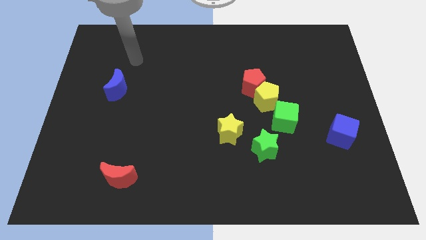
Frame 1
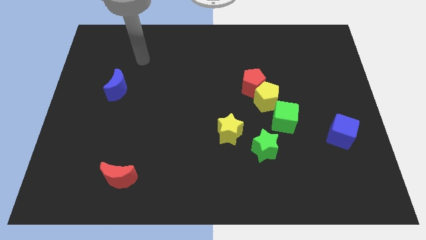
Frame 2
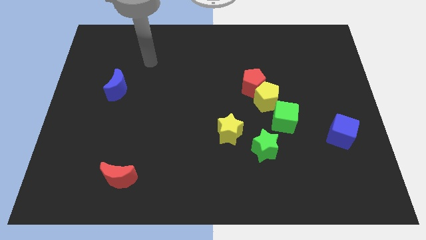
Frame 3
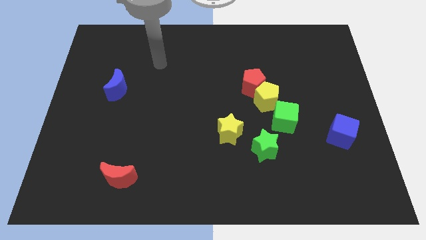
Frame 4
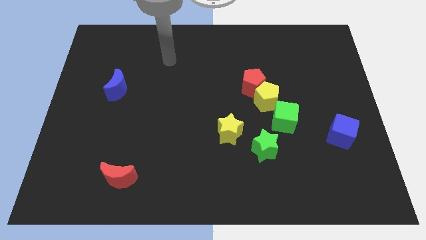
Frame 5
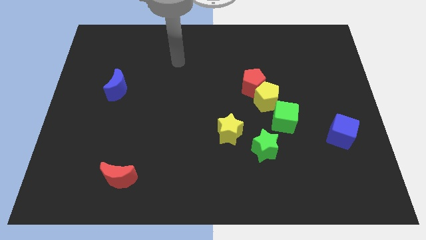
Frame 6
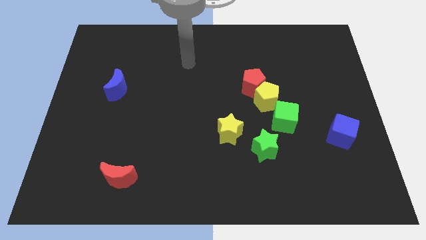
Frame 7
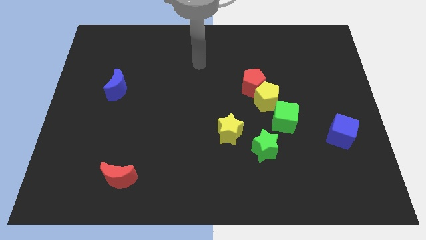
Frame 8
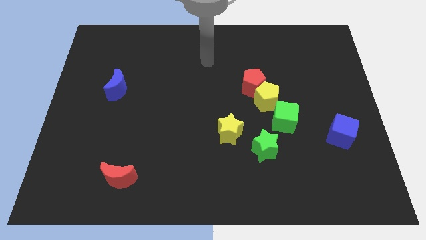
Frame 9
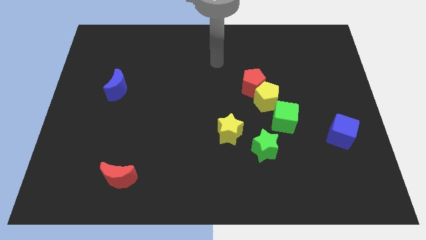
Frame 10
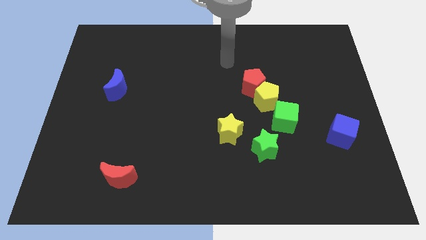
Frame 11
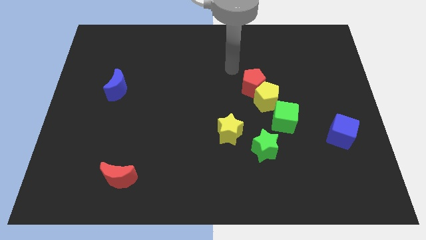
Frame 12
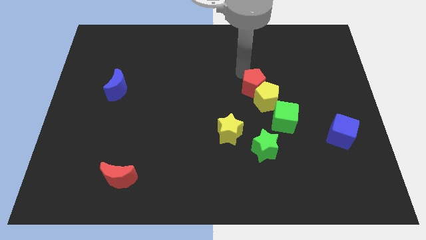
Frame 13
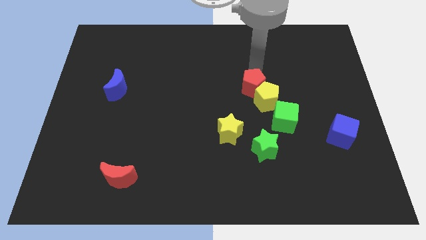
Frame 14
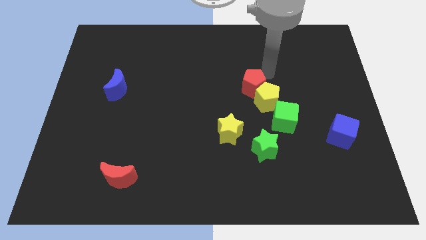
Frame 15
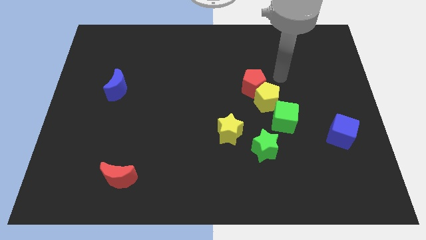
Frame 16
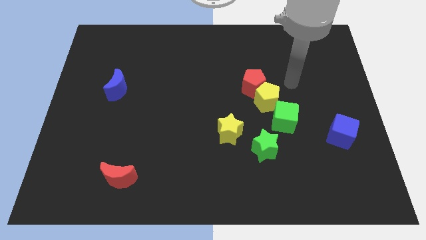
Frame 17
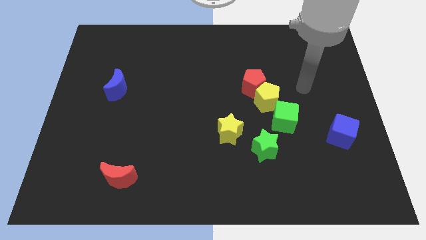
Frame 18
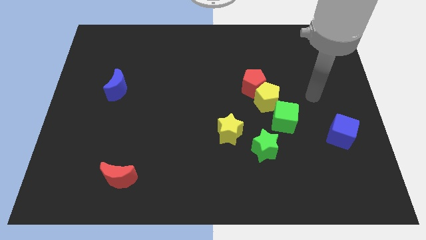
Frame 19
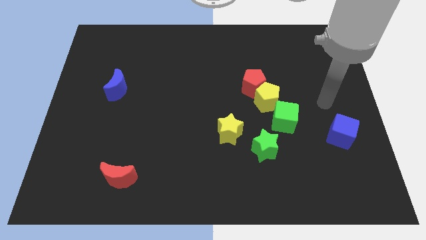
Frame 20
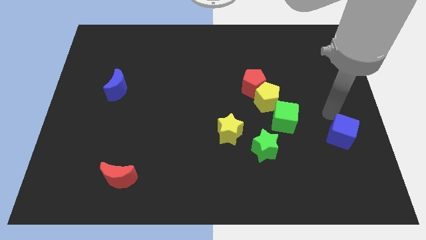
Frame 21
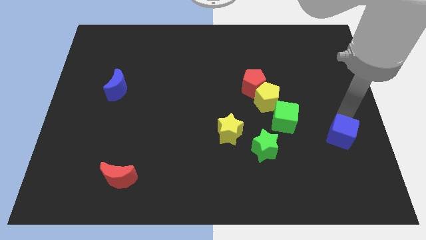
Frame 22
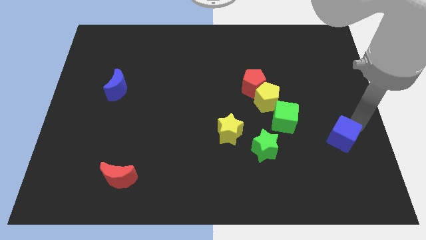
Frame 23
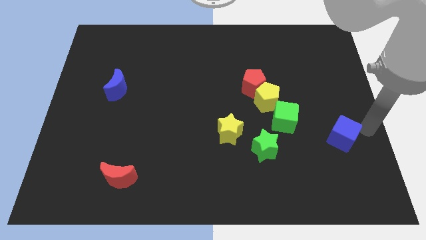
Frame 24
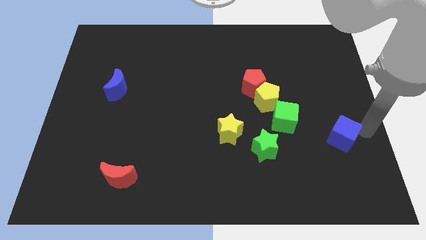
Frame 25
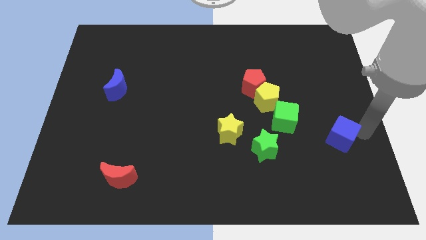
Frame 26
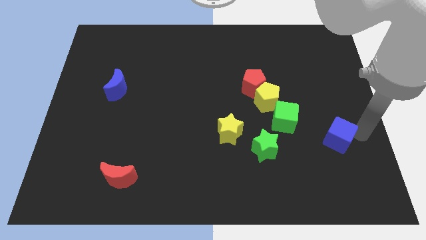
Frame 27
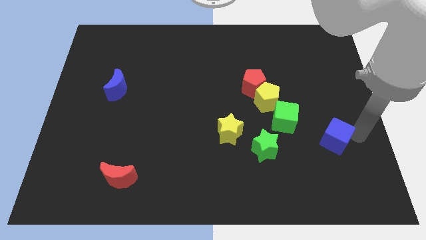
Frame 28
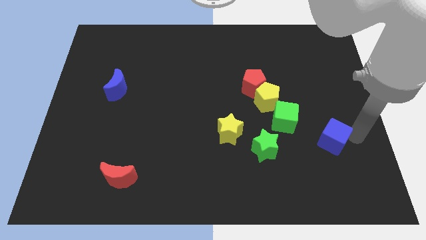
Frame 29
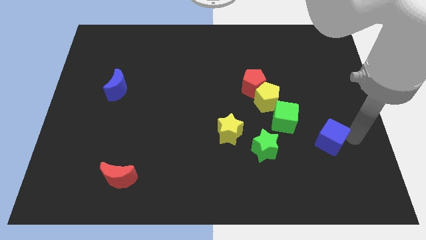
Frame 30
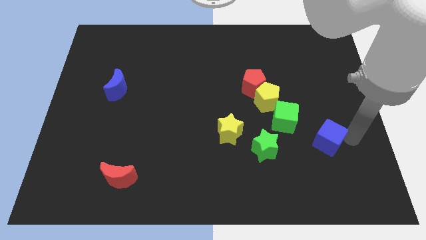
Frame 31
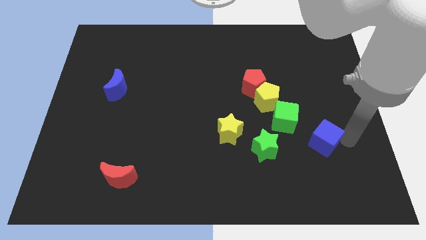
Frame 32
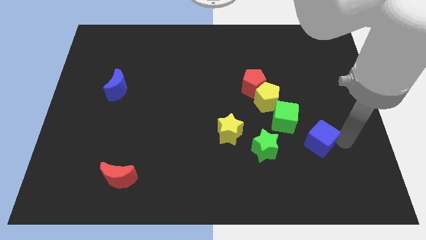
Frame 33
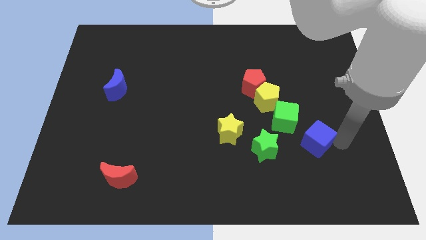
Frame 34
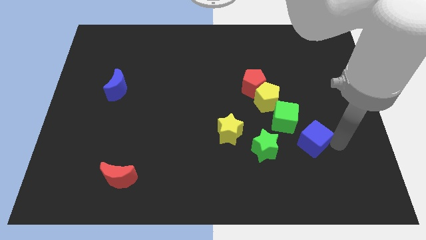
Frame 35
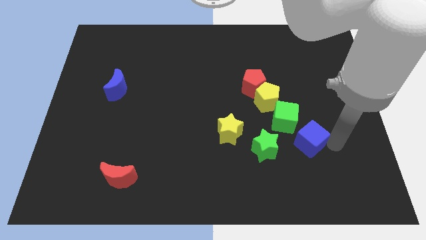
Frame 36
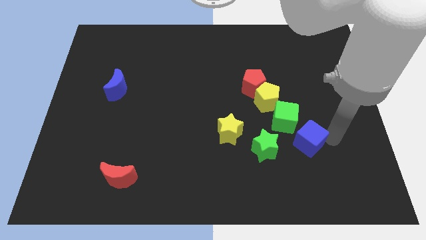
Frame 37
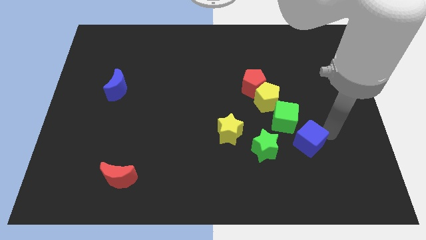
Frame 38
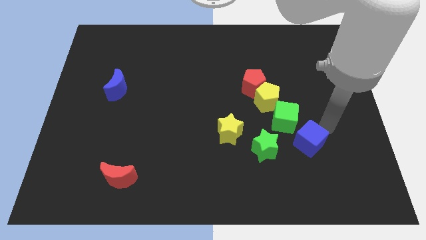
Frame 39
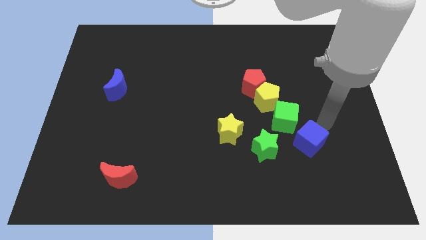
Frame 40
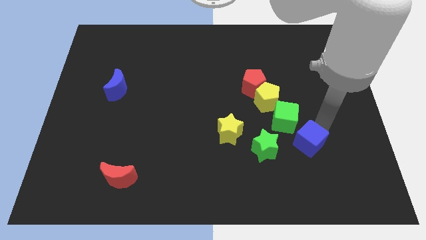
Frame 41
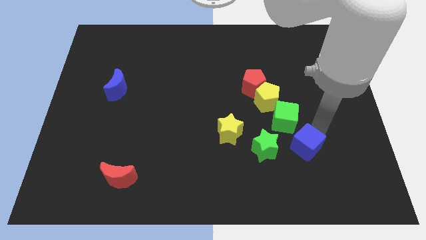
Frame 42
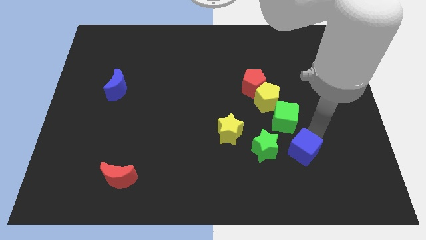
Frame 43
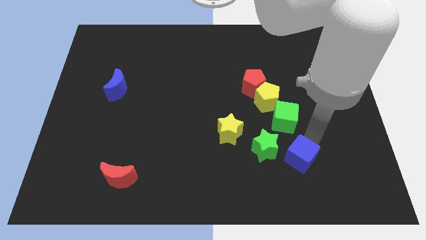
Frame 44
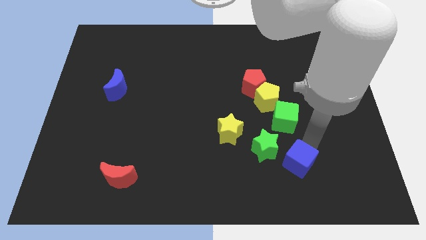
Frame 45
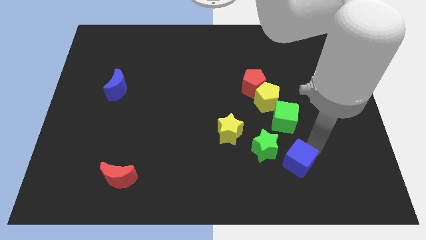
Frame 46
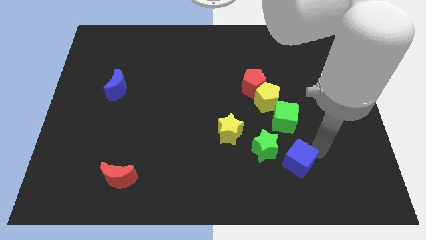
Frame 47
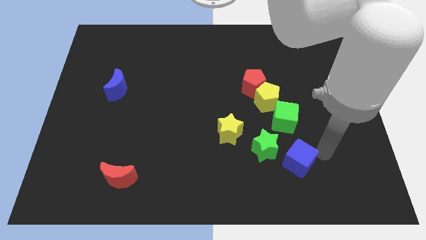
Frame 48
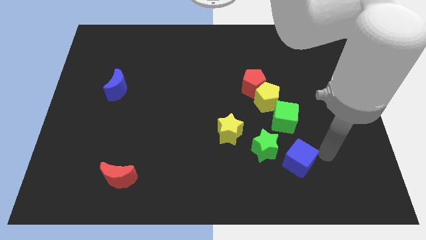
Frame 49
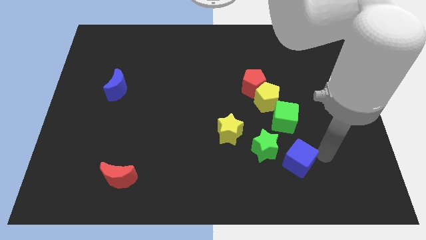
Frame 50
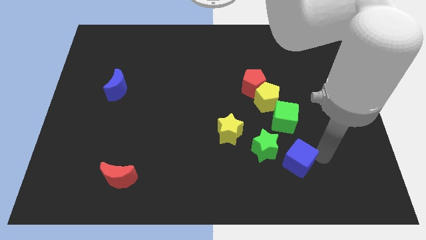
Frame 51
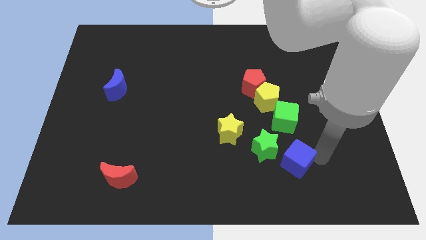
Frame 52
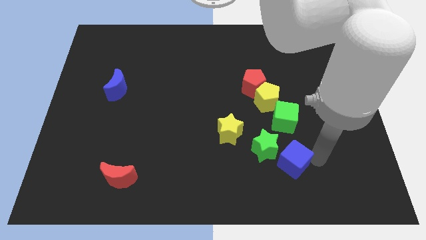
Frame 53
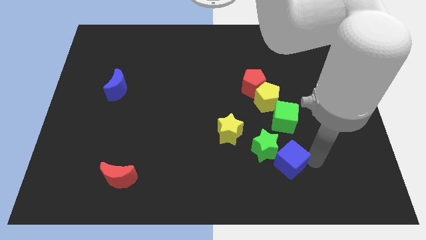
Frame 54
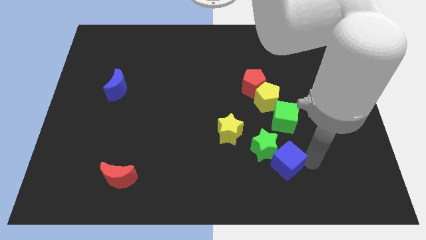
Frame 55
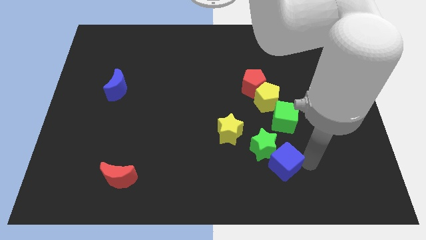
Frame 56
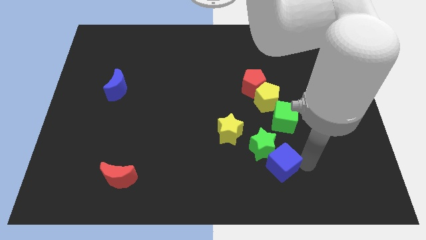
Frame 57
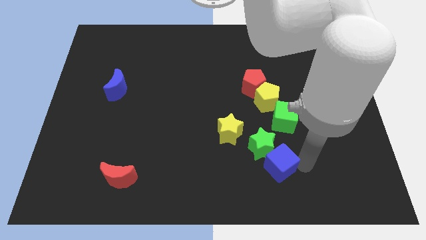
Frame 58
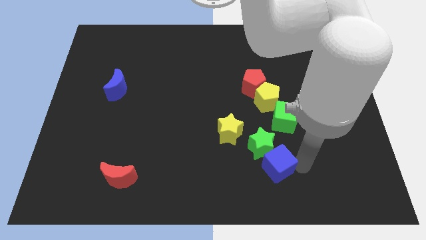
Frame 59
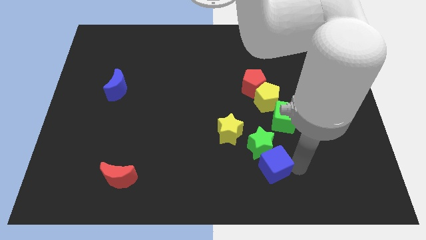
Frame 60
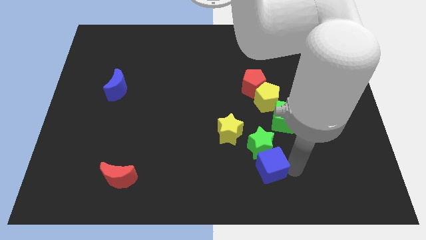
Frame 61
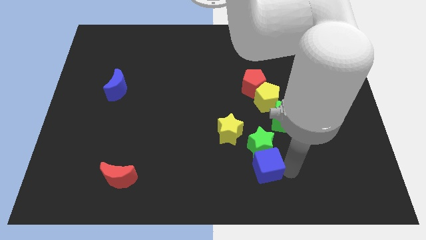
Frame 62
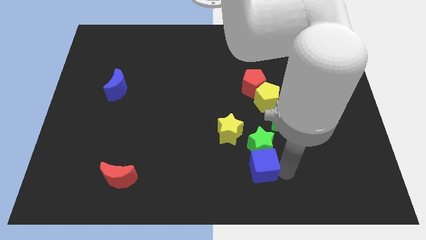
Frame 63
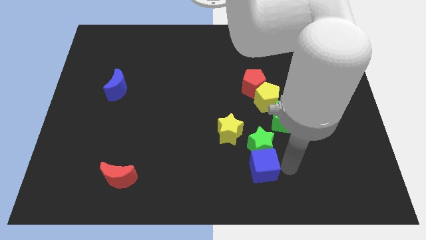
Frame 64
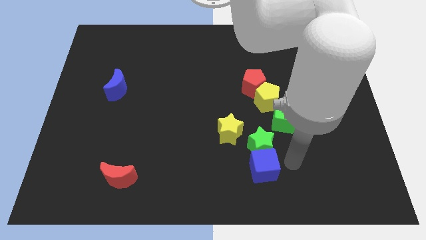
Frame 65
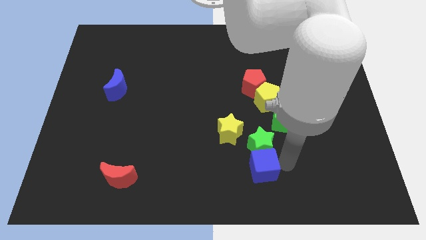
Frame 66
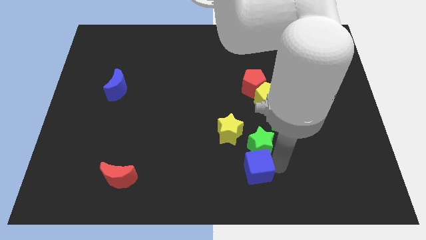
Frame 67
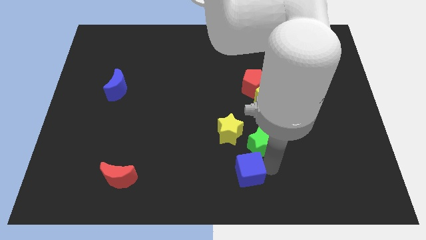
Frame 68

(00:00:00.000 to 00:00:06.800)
push the blue cube below the yellow star
